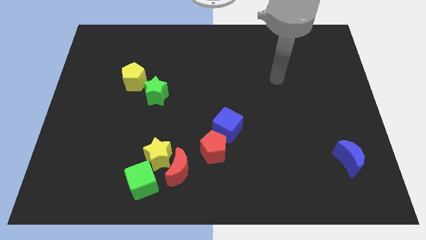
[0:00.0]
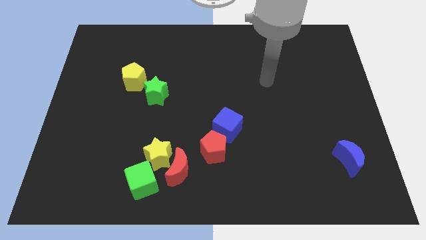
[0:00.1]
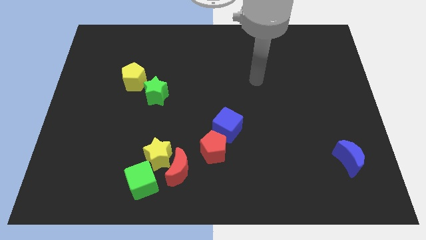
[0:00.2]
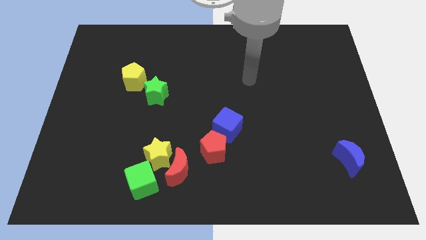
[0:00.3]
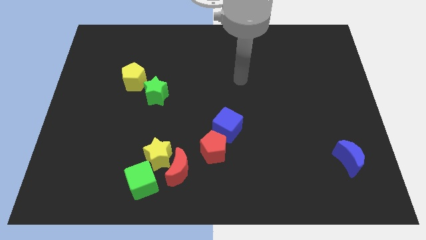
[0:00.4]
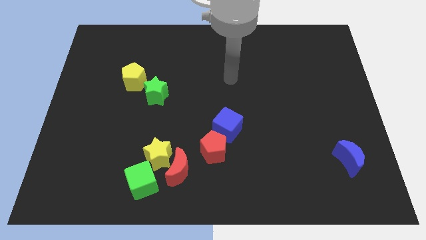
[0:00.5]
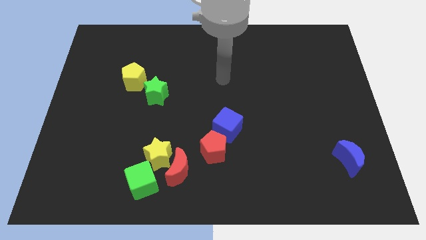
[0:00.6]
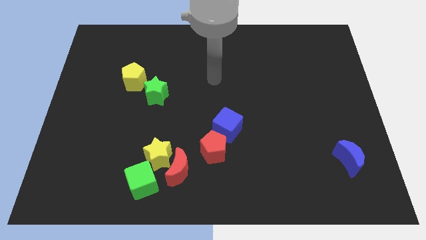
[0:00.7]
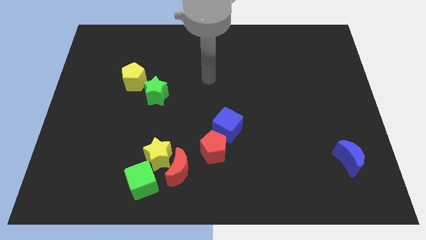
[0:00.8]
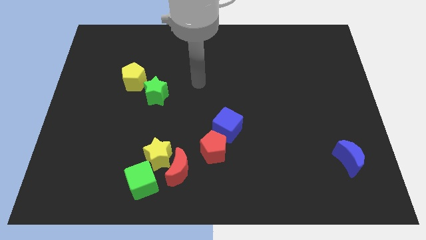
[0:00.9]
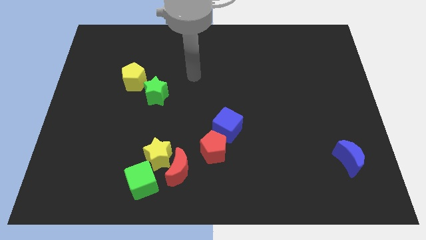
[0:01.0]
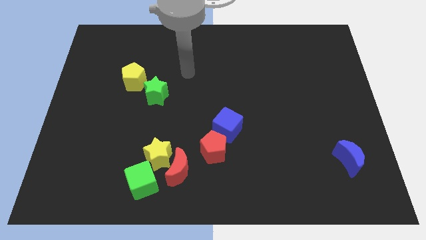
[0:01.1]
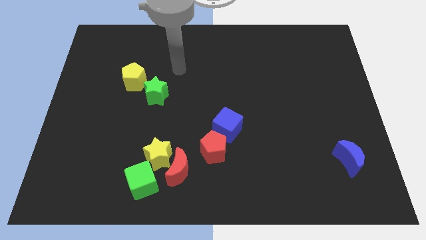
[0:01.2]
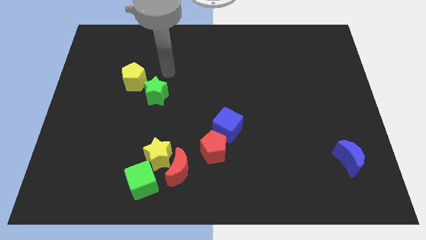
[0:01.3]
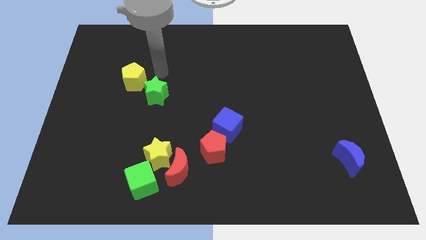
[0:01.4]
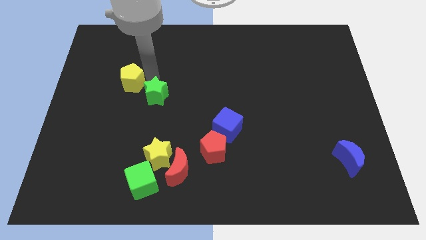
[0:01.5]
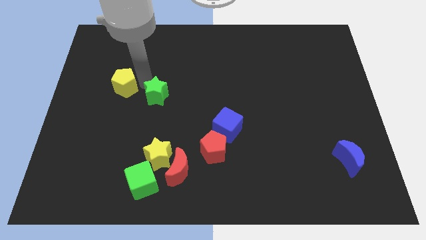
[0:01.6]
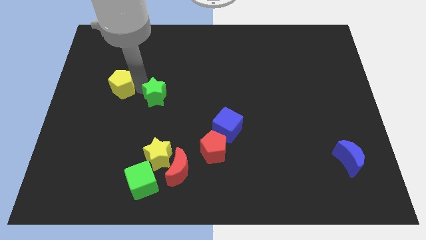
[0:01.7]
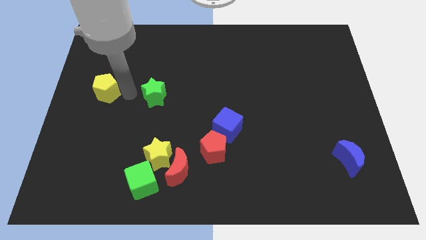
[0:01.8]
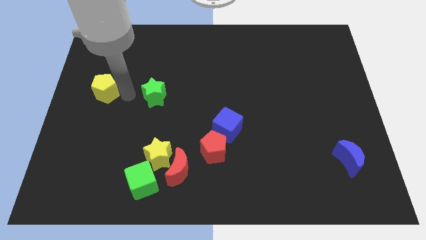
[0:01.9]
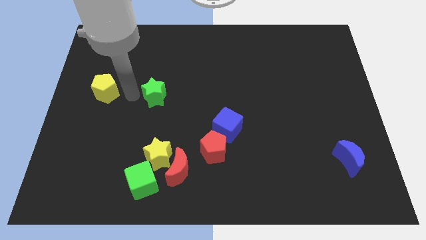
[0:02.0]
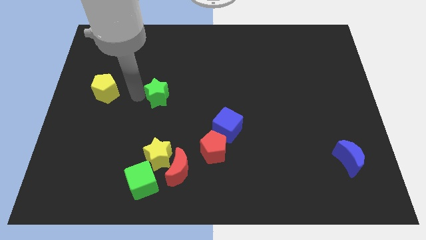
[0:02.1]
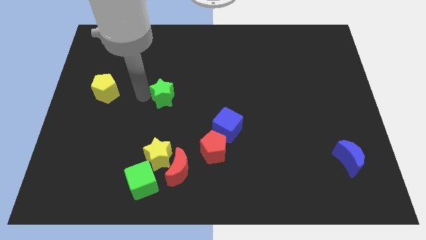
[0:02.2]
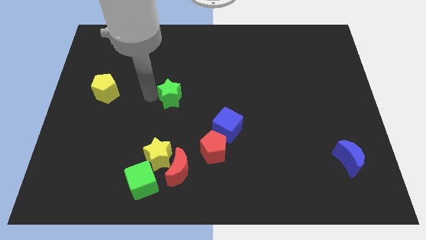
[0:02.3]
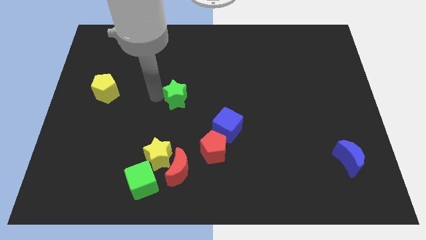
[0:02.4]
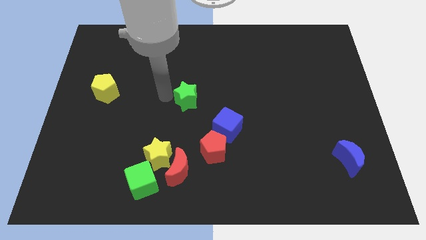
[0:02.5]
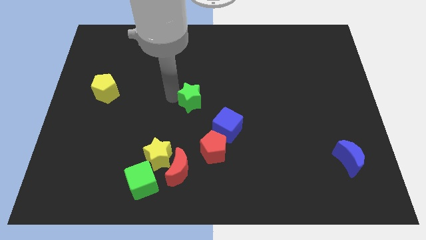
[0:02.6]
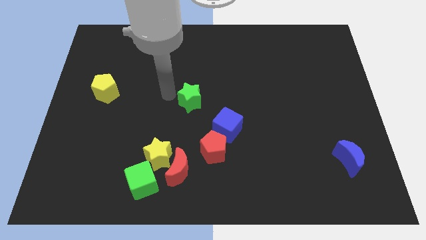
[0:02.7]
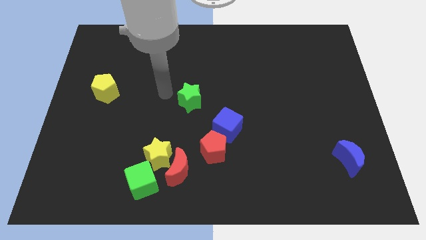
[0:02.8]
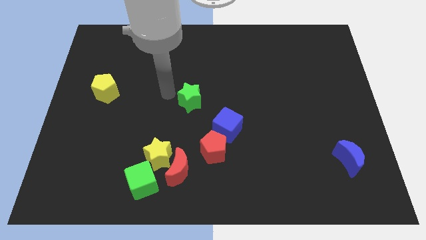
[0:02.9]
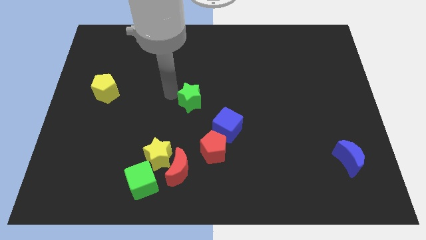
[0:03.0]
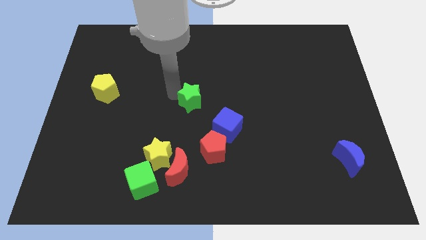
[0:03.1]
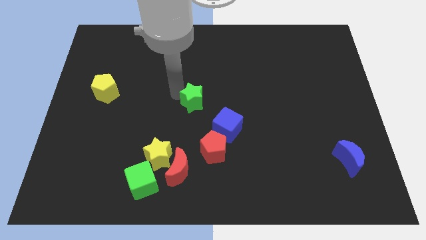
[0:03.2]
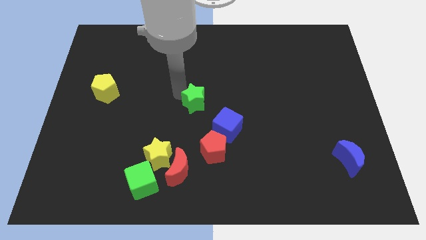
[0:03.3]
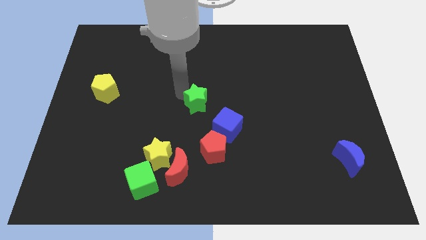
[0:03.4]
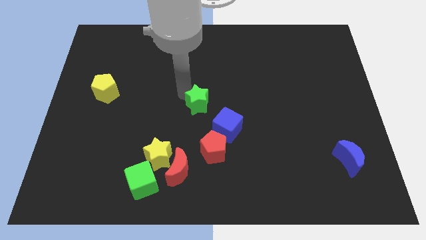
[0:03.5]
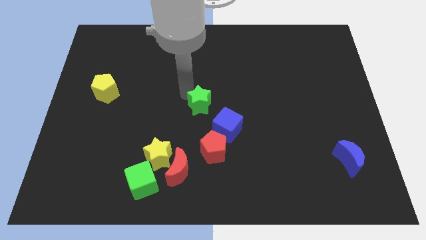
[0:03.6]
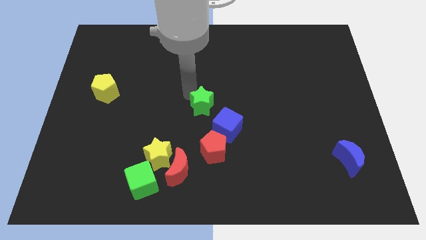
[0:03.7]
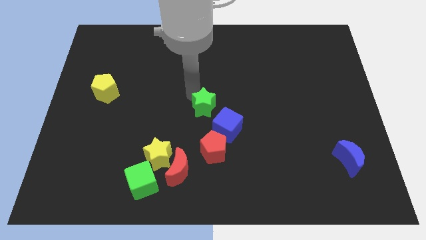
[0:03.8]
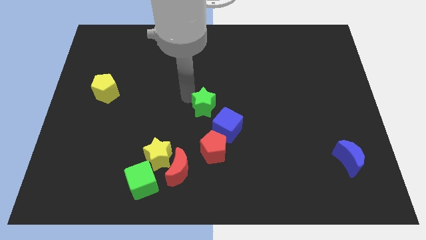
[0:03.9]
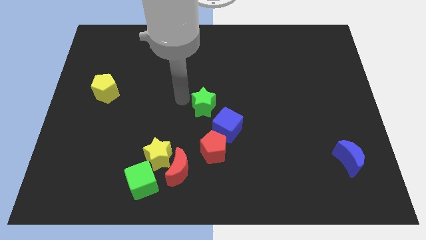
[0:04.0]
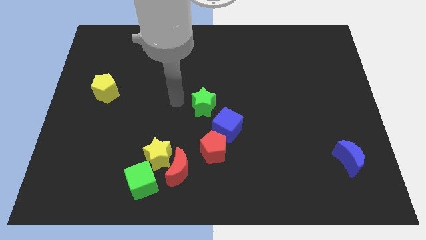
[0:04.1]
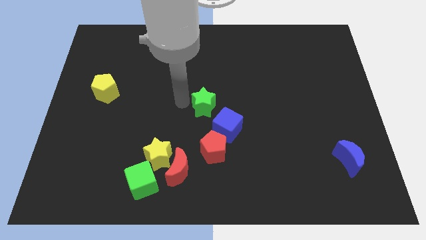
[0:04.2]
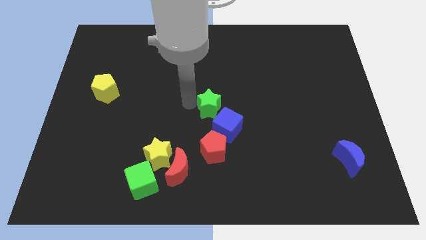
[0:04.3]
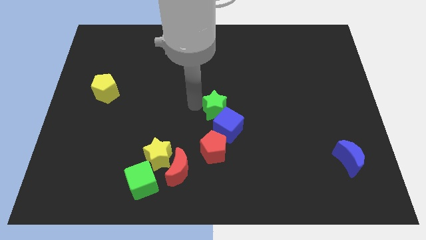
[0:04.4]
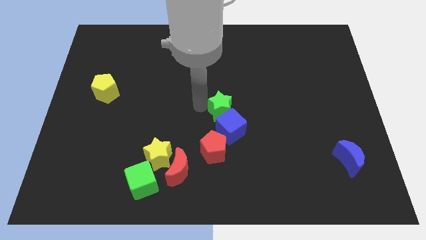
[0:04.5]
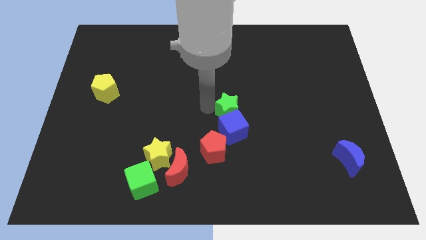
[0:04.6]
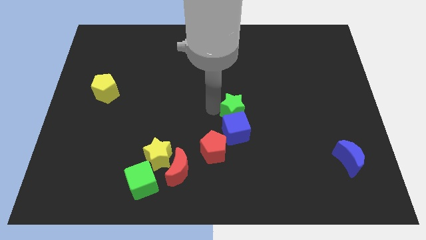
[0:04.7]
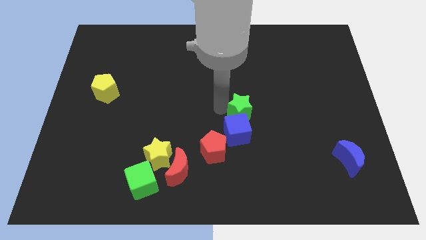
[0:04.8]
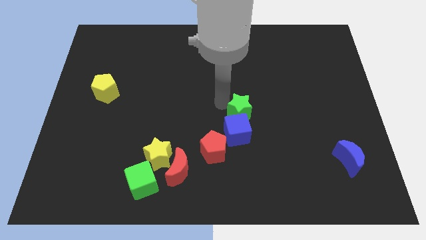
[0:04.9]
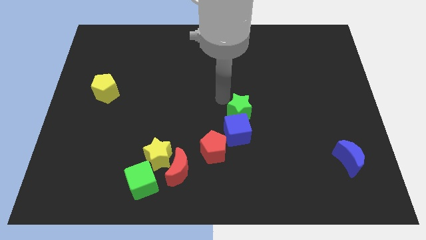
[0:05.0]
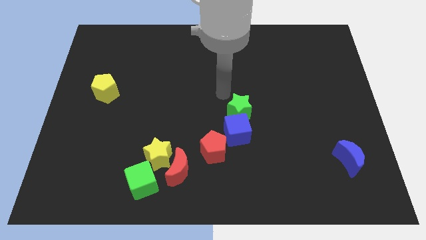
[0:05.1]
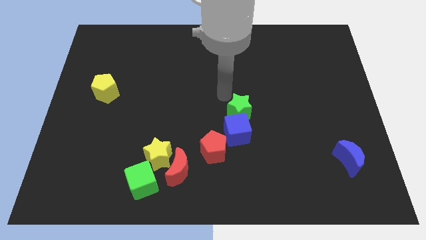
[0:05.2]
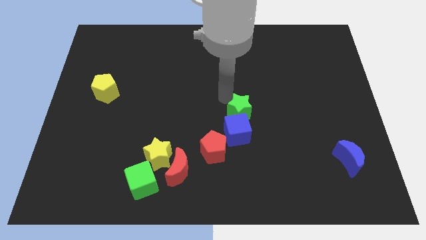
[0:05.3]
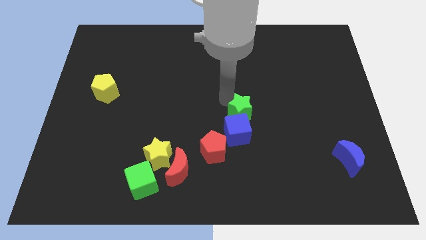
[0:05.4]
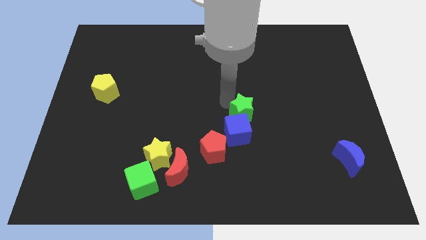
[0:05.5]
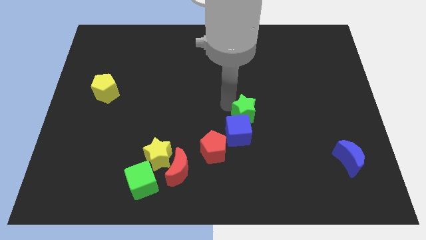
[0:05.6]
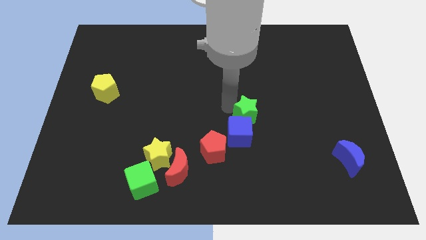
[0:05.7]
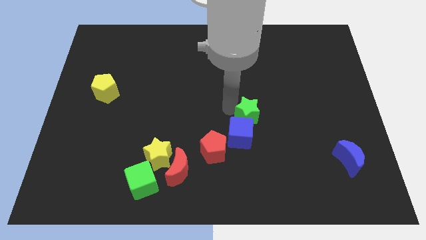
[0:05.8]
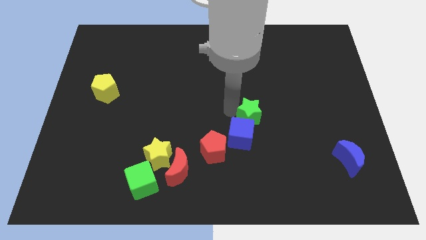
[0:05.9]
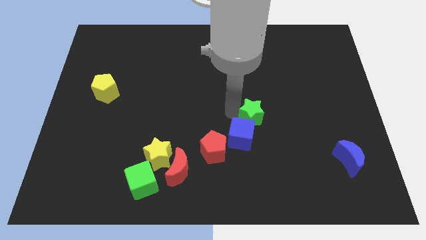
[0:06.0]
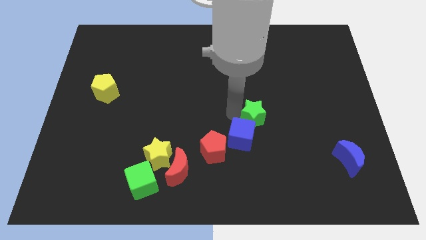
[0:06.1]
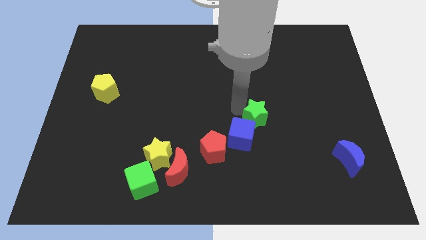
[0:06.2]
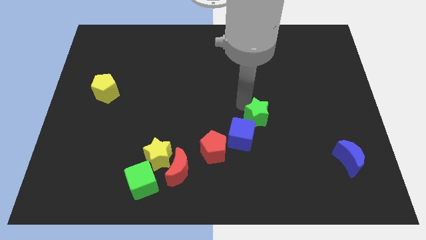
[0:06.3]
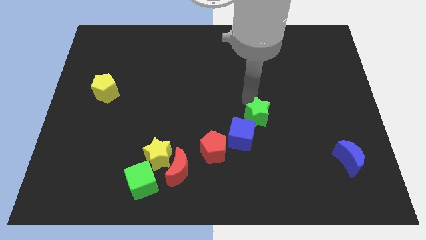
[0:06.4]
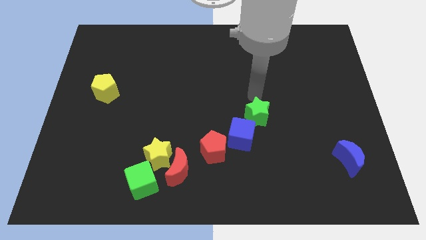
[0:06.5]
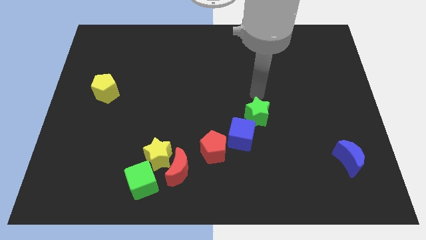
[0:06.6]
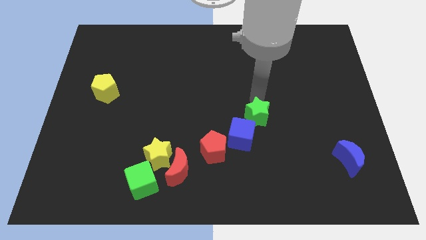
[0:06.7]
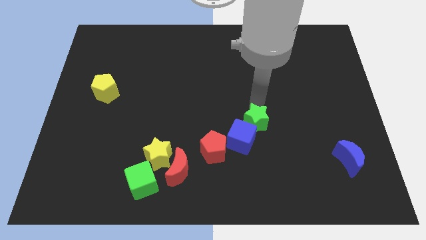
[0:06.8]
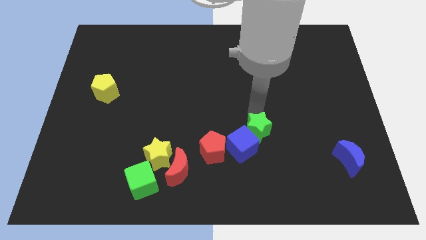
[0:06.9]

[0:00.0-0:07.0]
slide the green star diagonally downwards and right

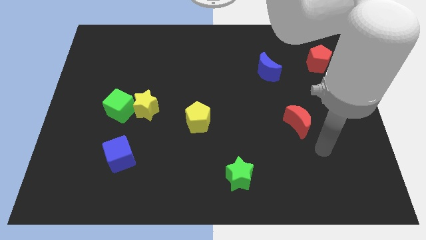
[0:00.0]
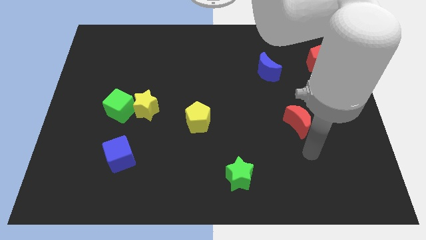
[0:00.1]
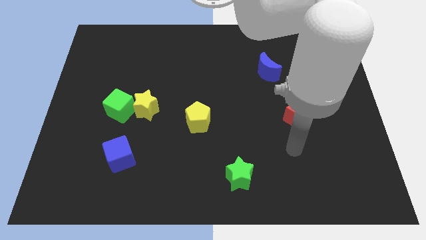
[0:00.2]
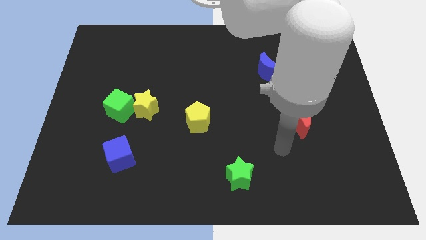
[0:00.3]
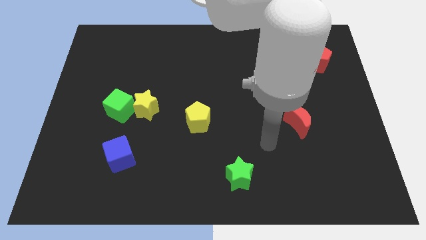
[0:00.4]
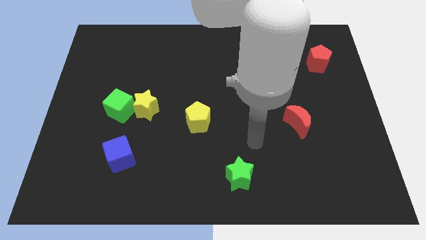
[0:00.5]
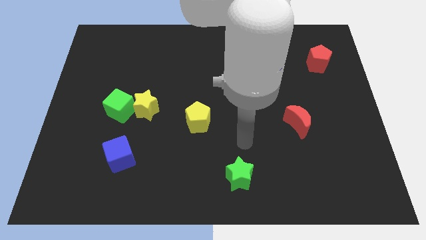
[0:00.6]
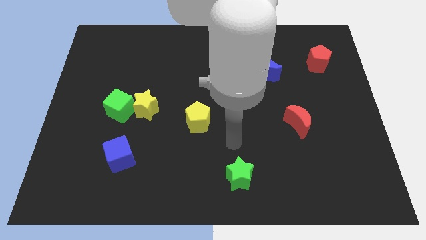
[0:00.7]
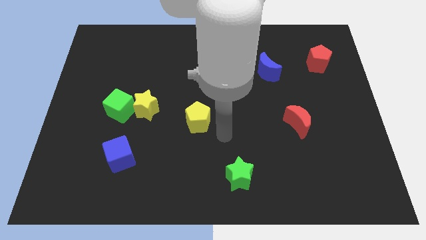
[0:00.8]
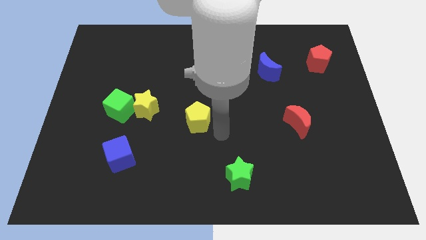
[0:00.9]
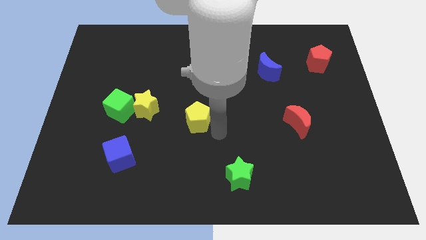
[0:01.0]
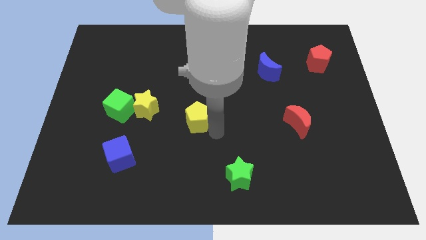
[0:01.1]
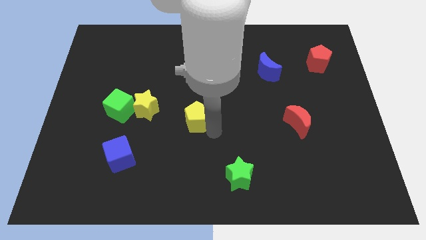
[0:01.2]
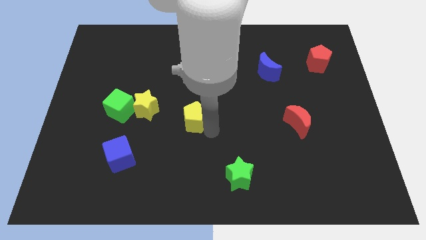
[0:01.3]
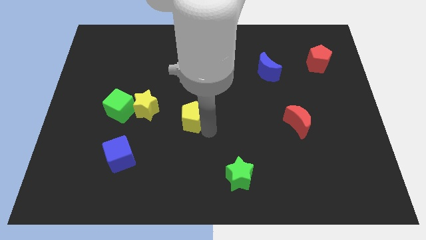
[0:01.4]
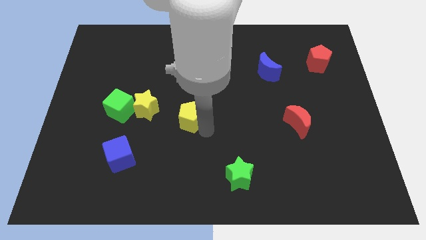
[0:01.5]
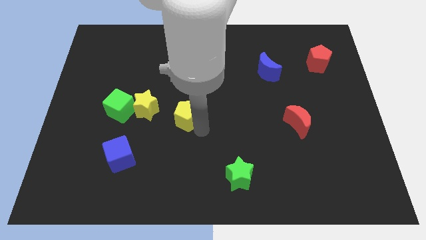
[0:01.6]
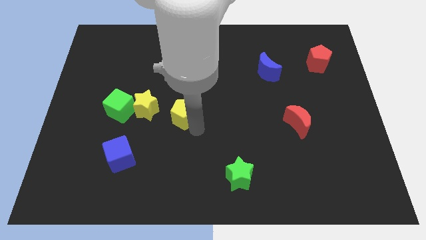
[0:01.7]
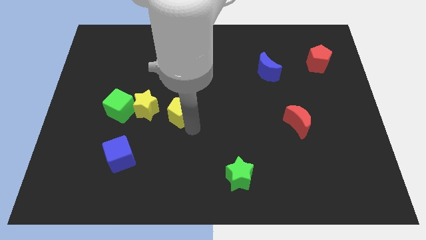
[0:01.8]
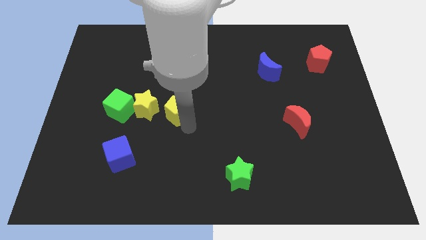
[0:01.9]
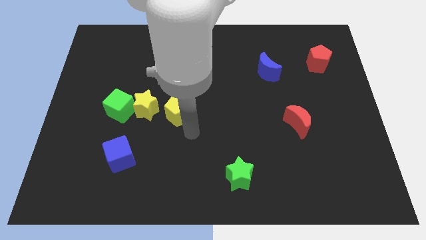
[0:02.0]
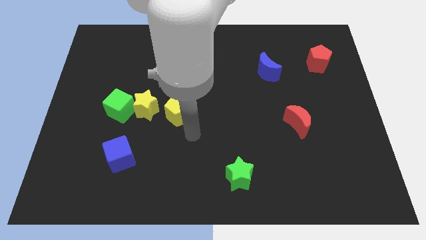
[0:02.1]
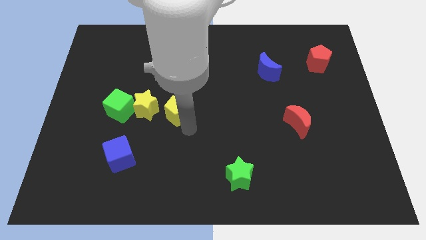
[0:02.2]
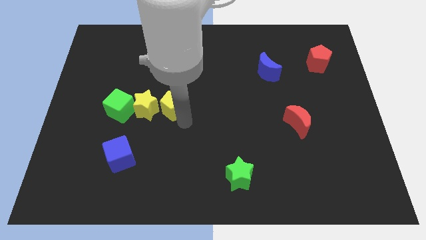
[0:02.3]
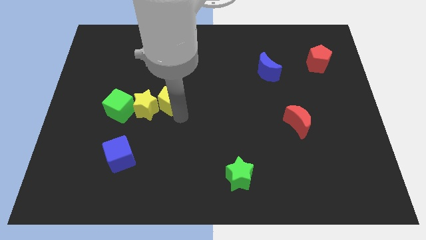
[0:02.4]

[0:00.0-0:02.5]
push the yellow pentagon up and to the left diagonally a little bit
